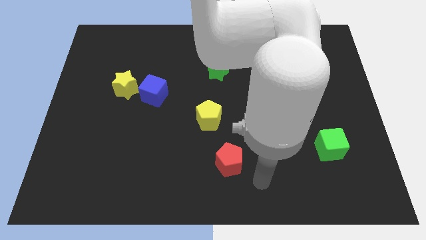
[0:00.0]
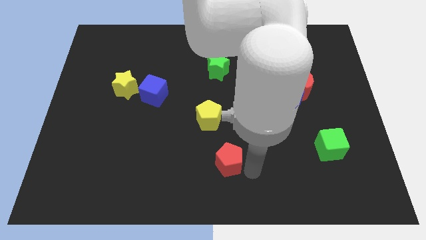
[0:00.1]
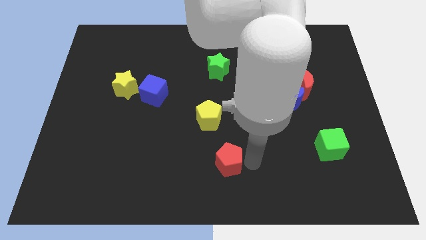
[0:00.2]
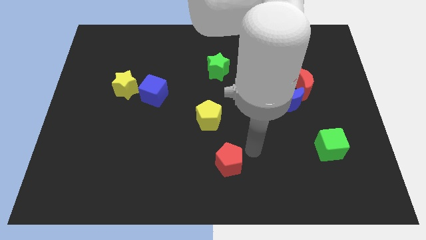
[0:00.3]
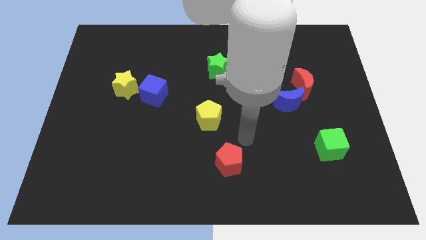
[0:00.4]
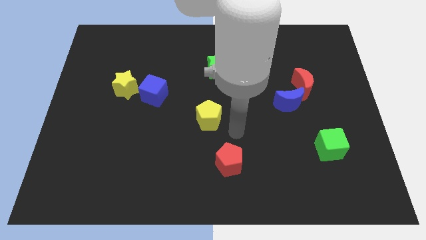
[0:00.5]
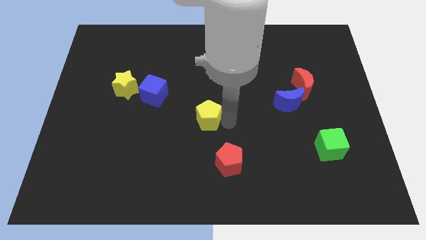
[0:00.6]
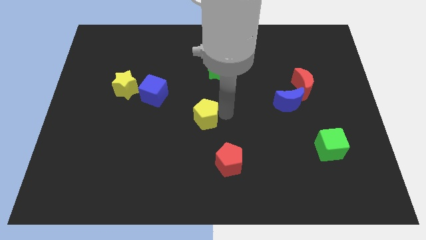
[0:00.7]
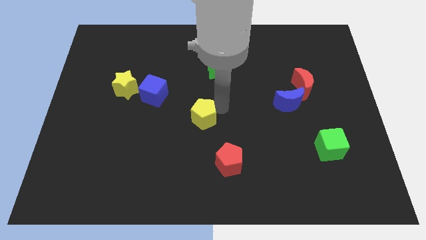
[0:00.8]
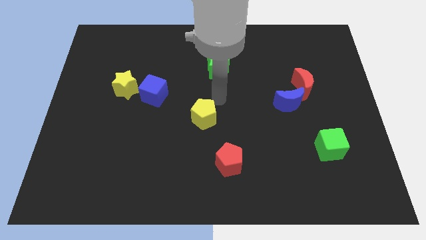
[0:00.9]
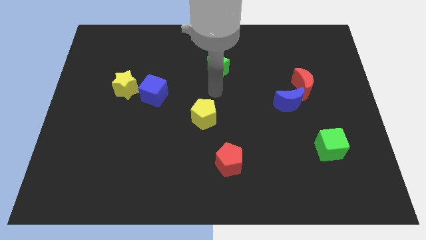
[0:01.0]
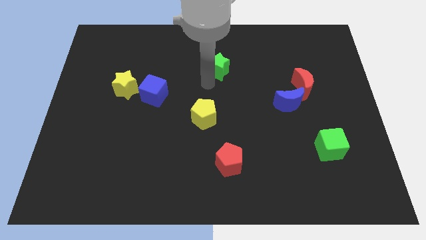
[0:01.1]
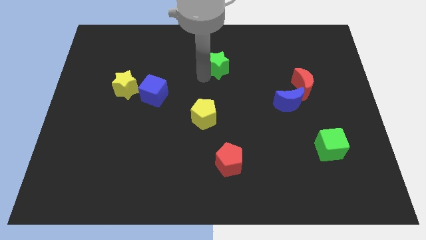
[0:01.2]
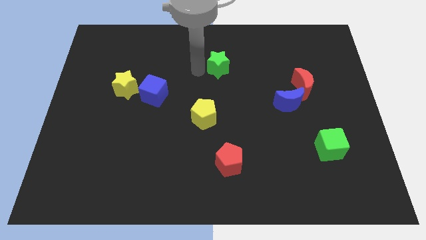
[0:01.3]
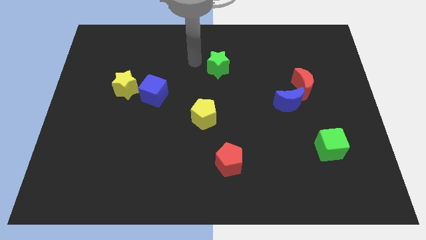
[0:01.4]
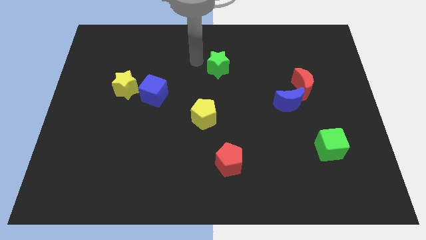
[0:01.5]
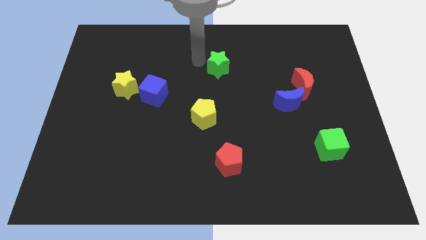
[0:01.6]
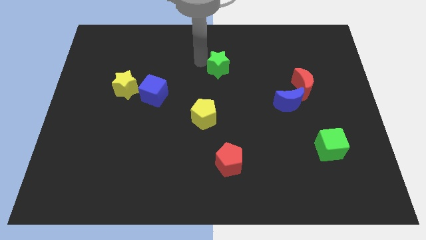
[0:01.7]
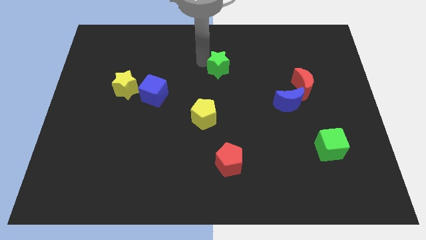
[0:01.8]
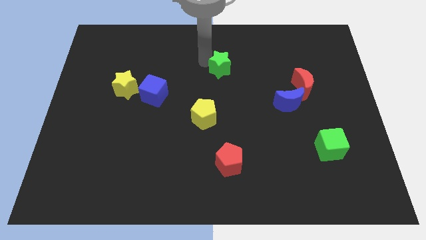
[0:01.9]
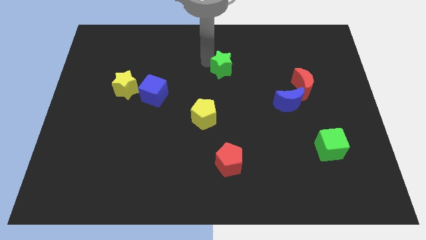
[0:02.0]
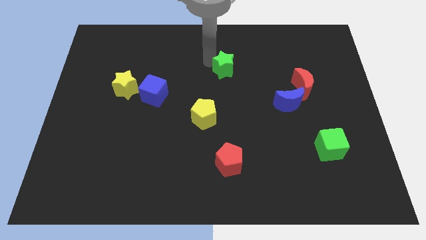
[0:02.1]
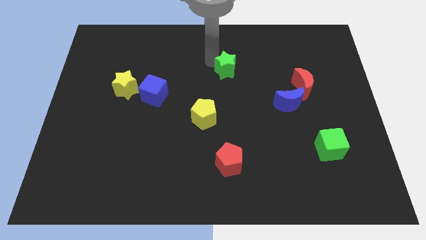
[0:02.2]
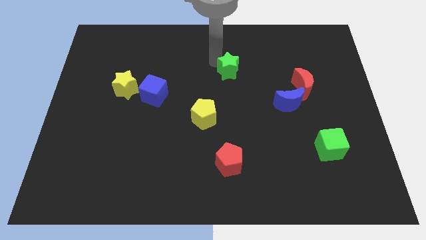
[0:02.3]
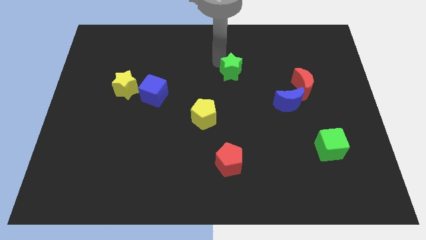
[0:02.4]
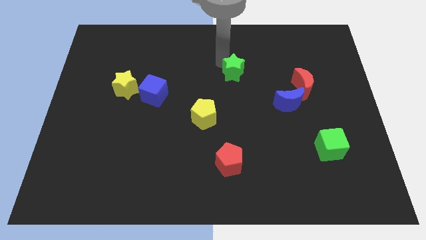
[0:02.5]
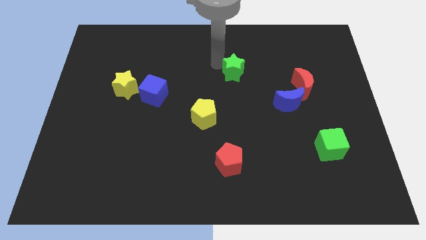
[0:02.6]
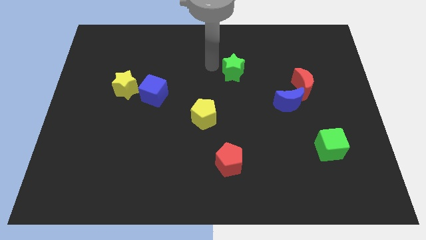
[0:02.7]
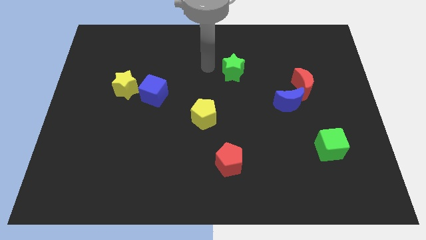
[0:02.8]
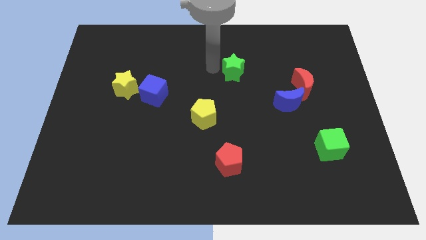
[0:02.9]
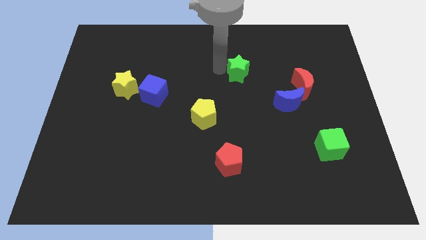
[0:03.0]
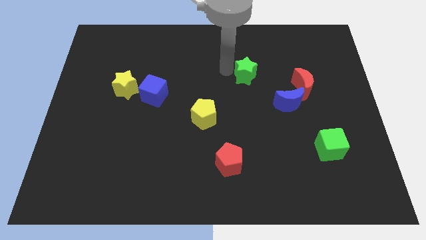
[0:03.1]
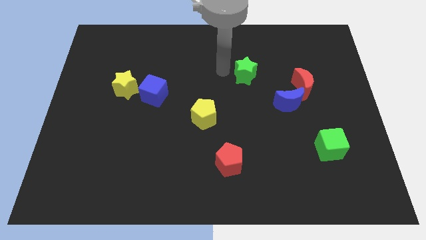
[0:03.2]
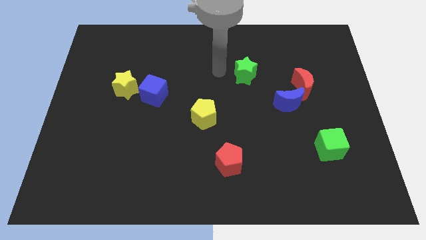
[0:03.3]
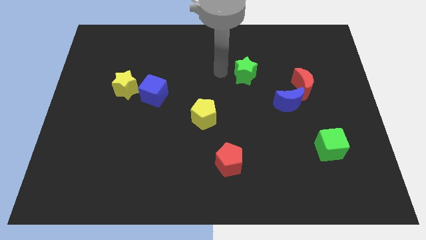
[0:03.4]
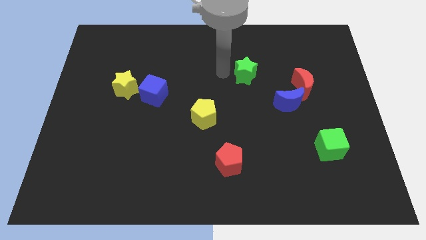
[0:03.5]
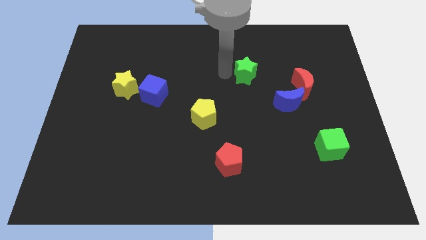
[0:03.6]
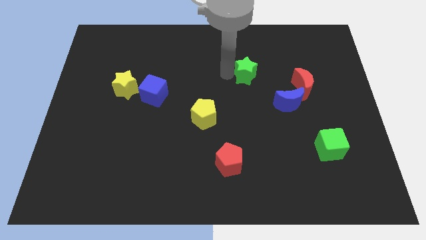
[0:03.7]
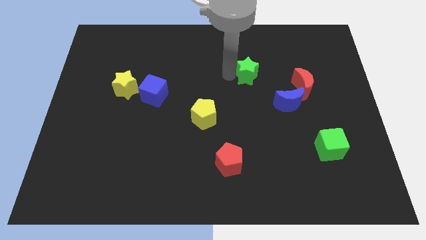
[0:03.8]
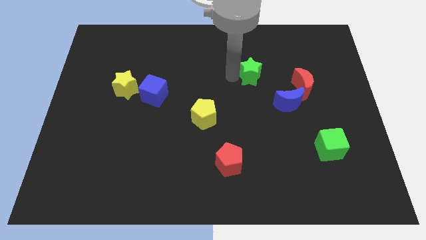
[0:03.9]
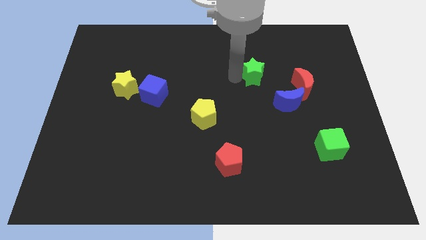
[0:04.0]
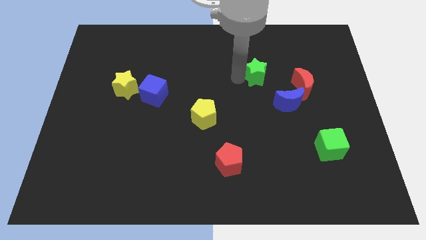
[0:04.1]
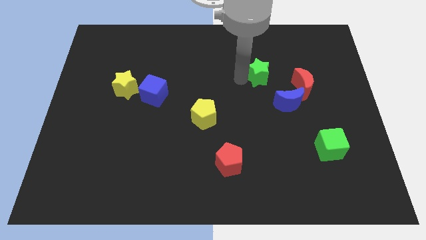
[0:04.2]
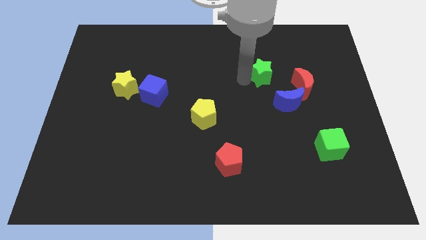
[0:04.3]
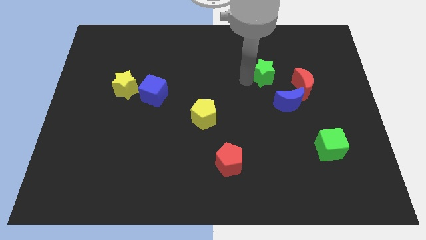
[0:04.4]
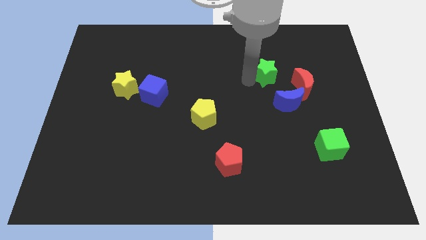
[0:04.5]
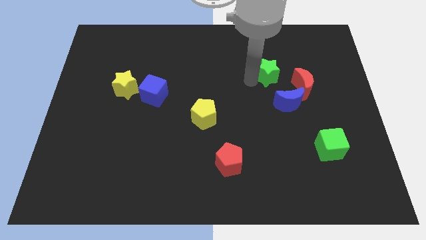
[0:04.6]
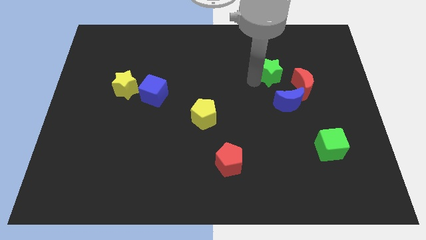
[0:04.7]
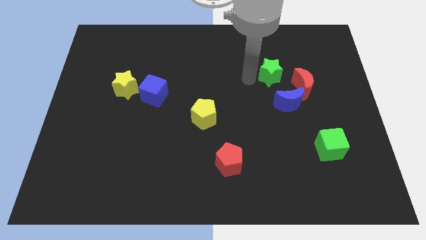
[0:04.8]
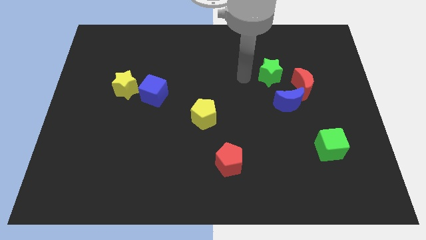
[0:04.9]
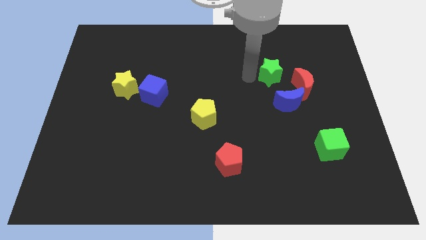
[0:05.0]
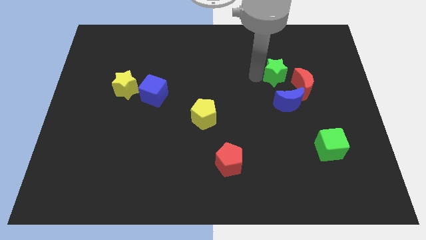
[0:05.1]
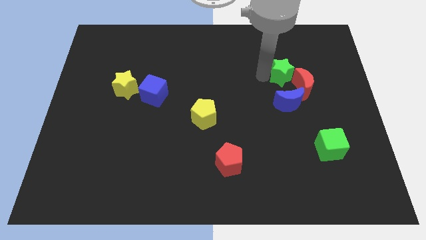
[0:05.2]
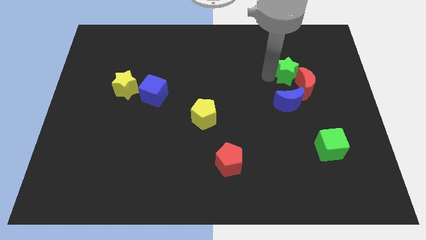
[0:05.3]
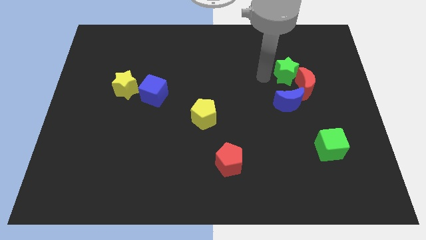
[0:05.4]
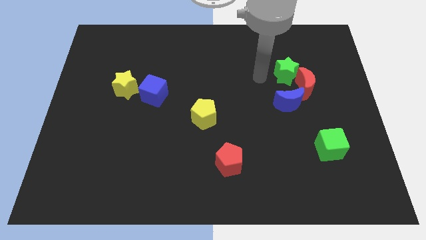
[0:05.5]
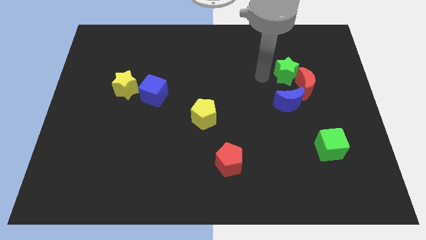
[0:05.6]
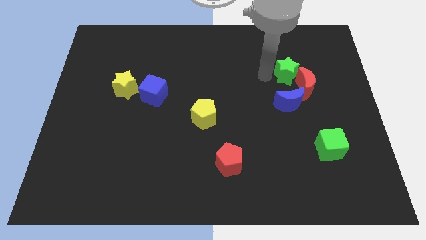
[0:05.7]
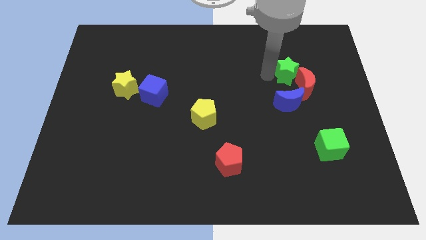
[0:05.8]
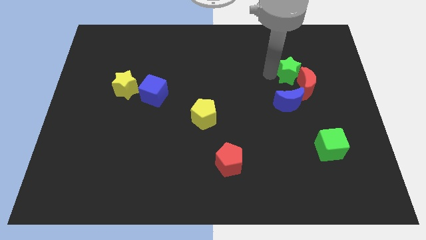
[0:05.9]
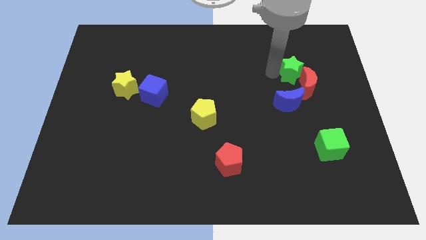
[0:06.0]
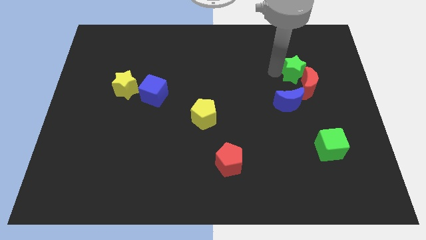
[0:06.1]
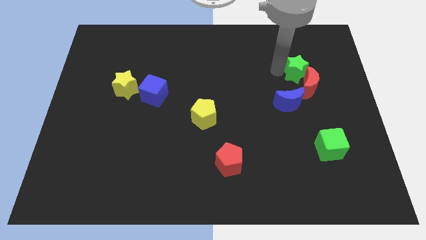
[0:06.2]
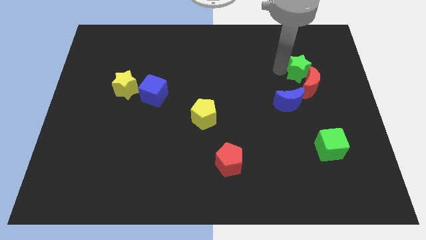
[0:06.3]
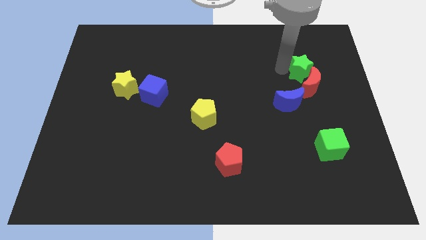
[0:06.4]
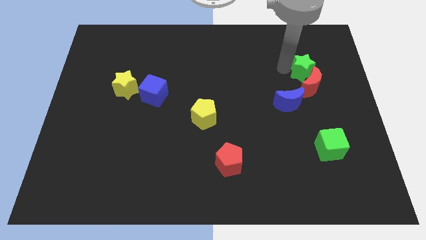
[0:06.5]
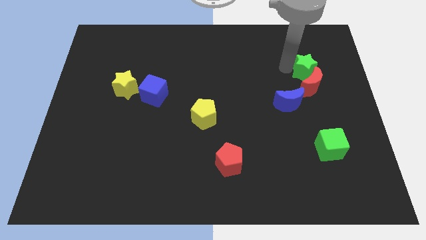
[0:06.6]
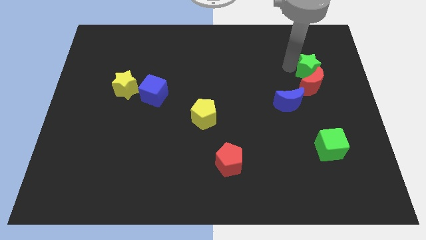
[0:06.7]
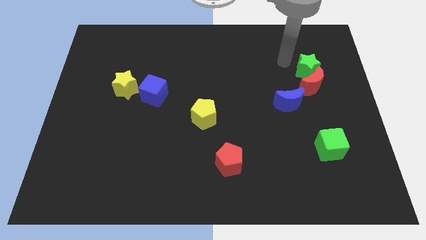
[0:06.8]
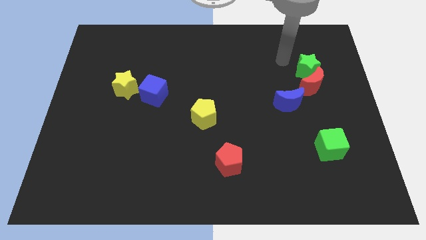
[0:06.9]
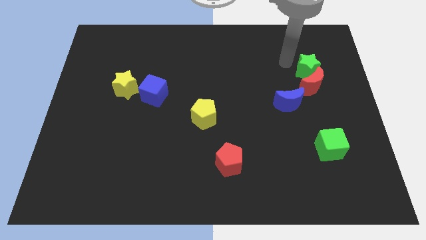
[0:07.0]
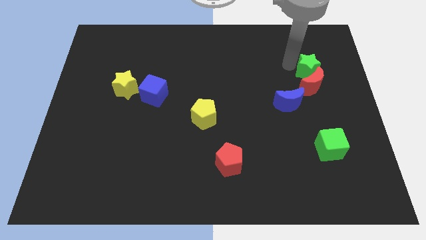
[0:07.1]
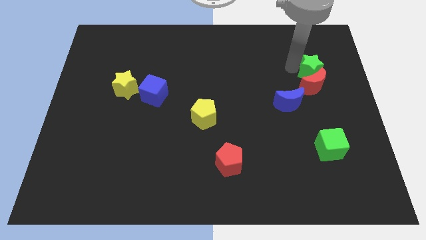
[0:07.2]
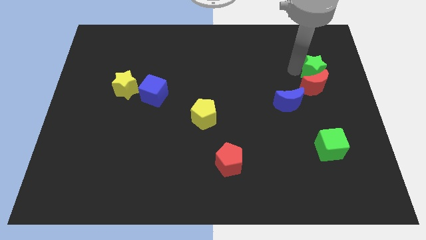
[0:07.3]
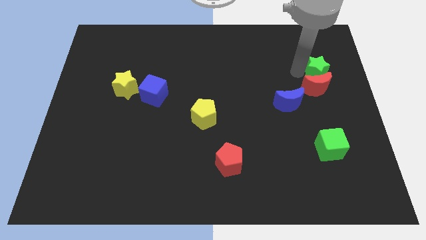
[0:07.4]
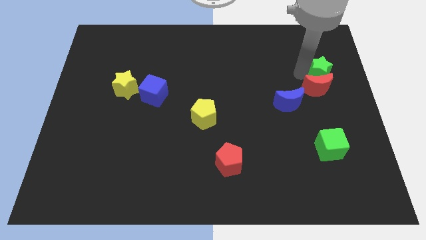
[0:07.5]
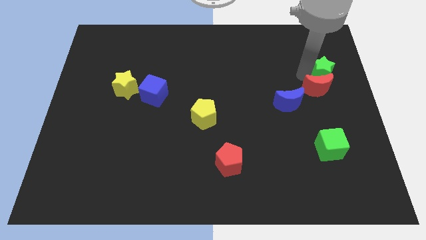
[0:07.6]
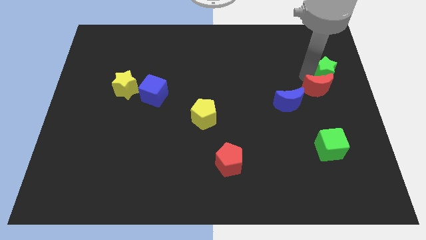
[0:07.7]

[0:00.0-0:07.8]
slide the green star to the right side
